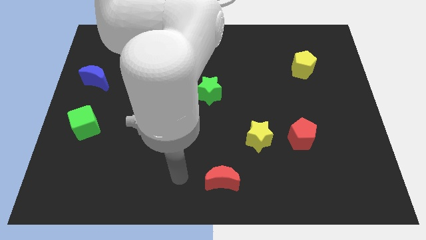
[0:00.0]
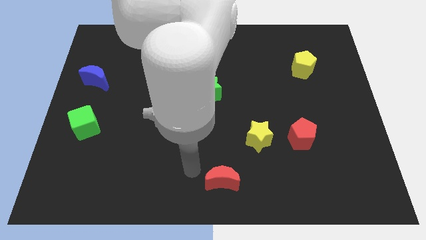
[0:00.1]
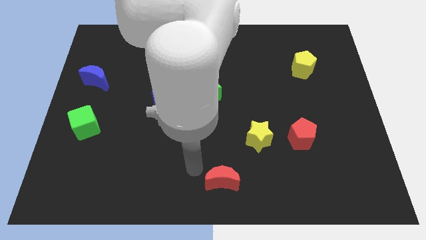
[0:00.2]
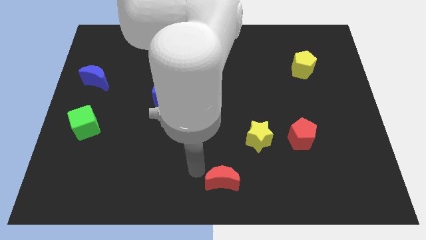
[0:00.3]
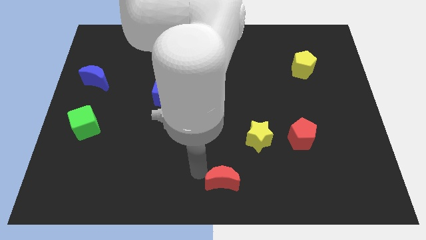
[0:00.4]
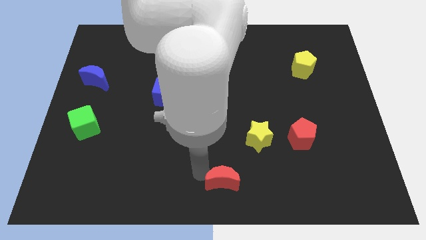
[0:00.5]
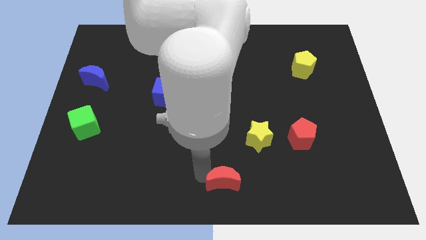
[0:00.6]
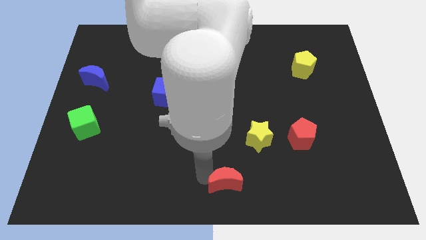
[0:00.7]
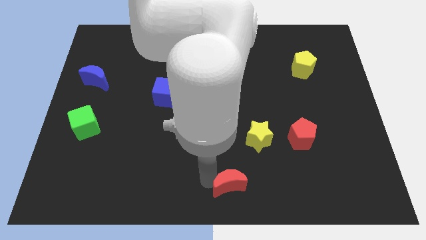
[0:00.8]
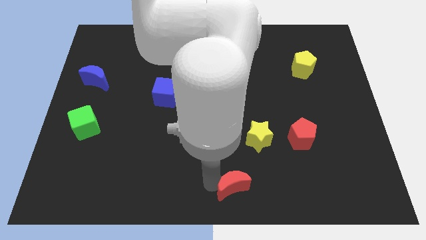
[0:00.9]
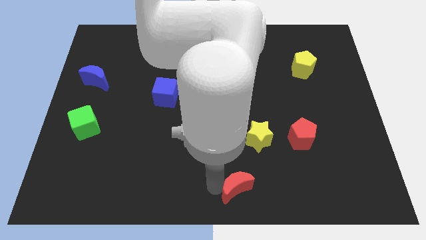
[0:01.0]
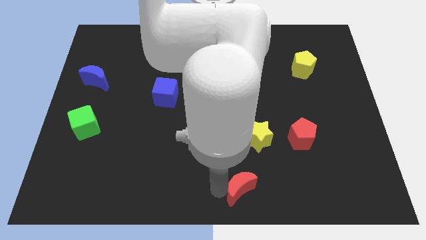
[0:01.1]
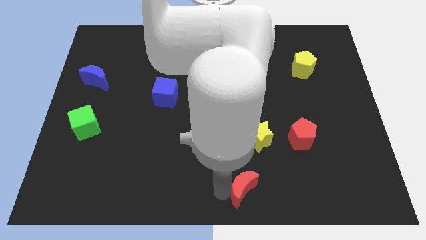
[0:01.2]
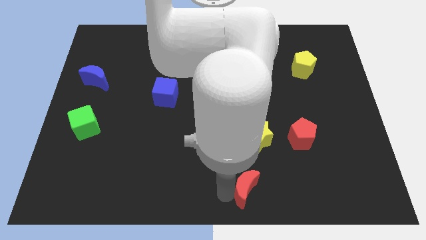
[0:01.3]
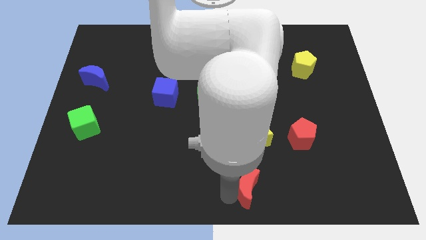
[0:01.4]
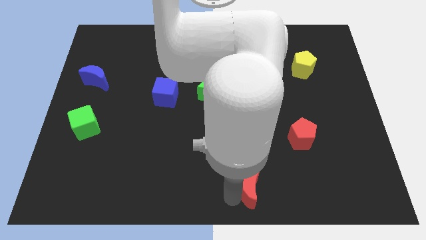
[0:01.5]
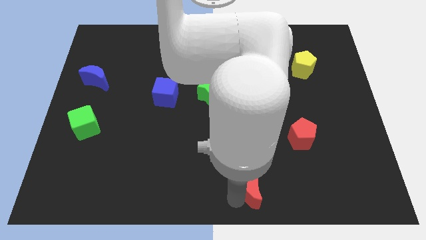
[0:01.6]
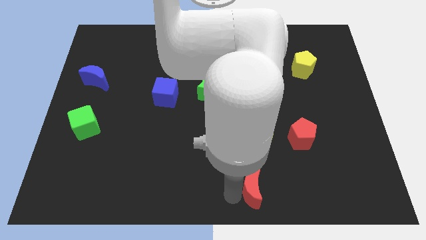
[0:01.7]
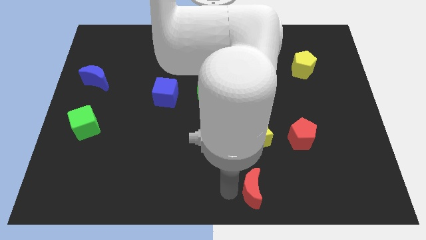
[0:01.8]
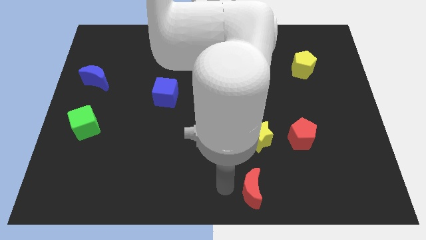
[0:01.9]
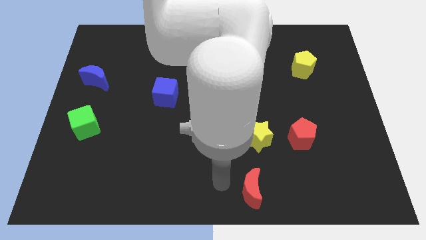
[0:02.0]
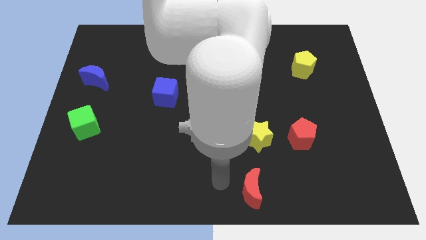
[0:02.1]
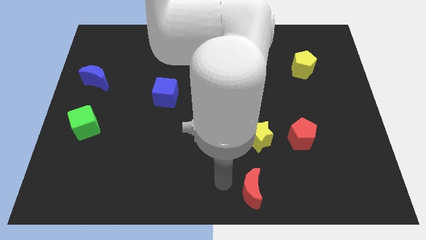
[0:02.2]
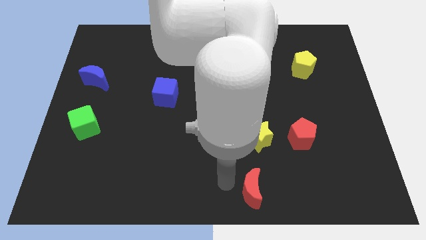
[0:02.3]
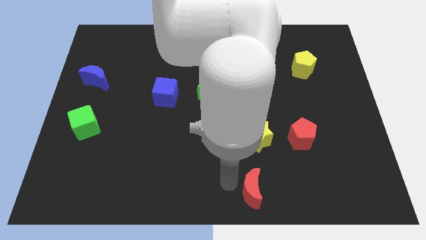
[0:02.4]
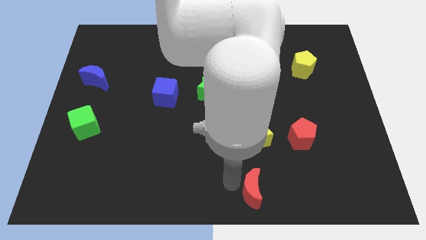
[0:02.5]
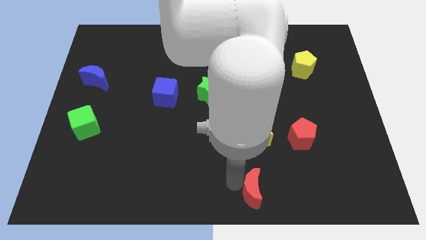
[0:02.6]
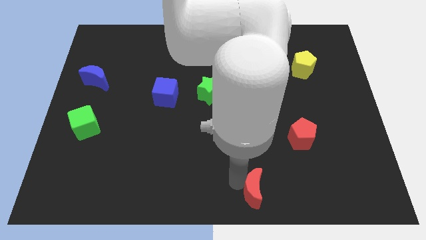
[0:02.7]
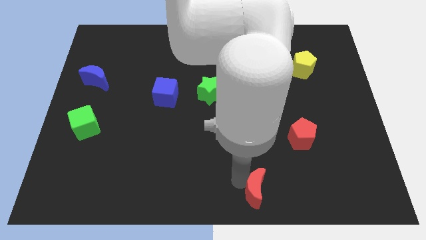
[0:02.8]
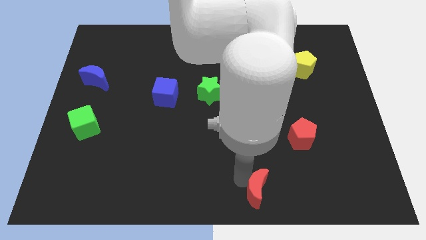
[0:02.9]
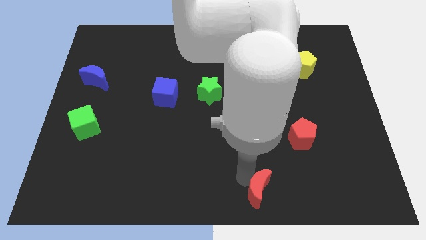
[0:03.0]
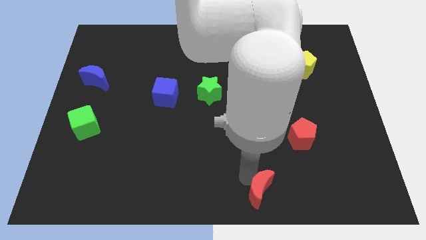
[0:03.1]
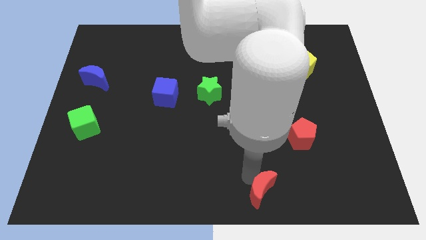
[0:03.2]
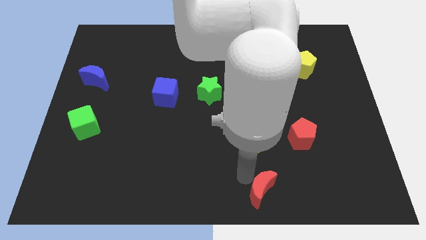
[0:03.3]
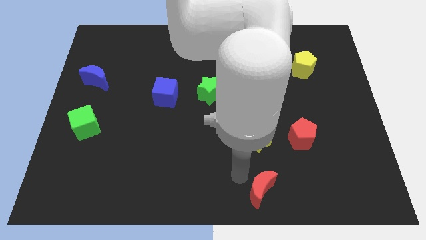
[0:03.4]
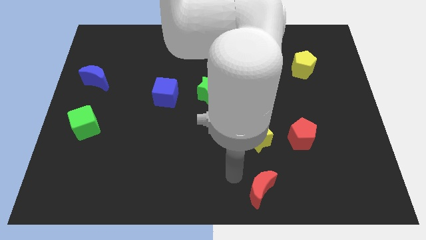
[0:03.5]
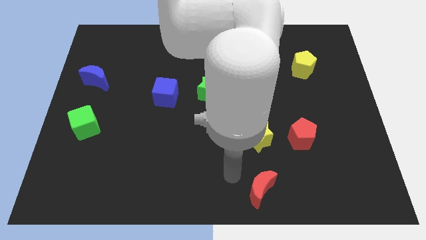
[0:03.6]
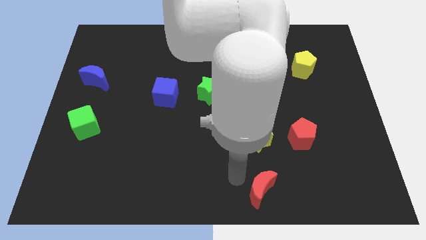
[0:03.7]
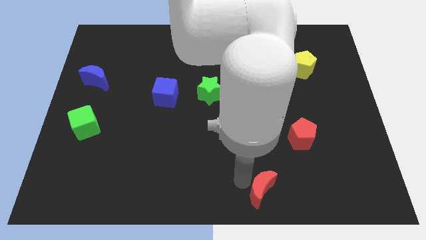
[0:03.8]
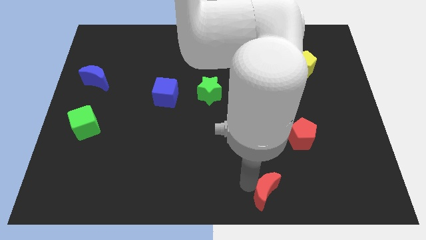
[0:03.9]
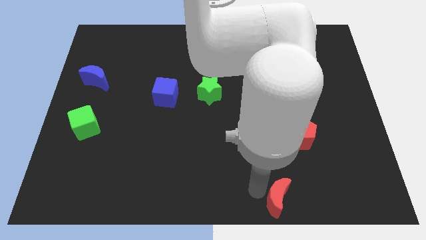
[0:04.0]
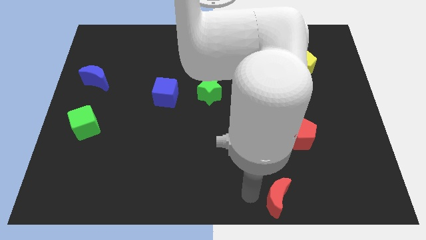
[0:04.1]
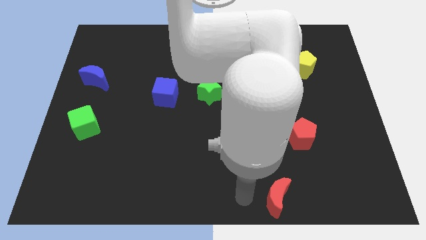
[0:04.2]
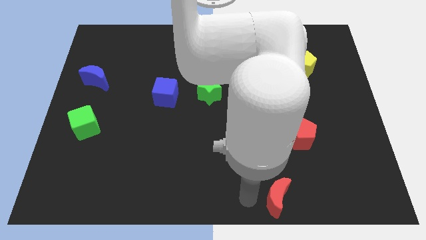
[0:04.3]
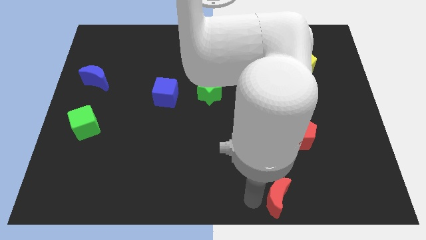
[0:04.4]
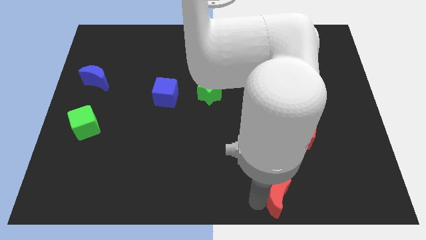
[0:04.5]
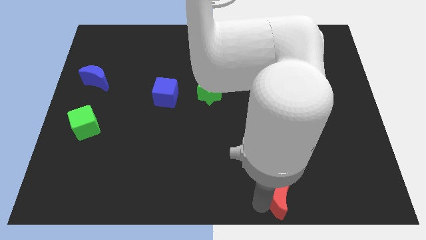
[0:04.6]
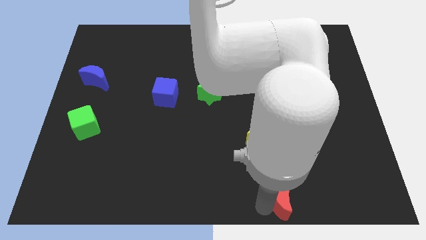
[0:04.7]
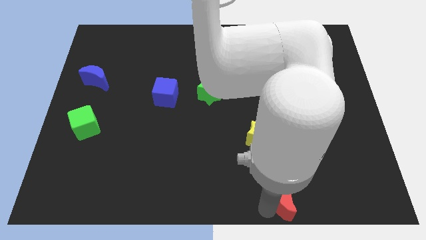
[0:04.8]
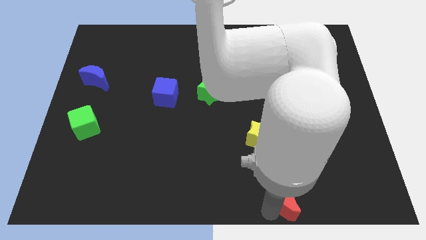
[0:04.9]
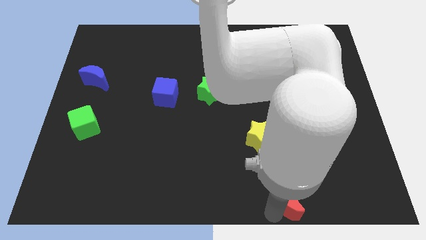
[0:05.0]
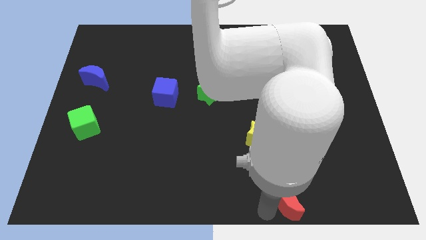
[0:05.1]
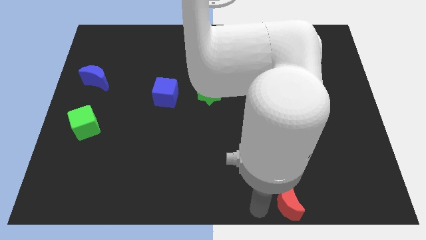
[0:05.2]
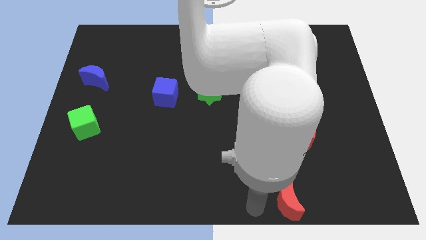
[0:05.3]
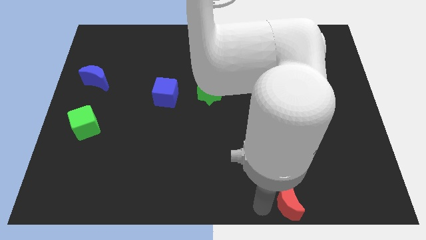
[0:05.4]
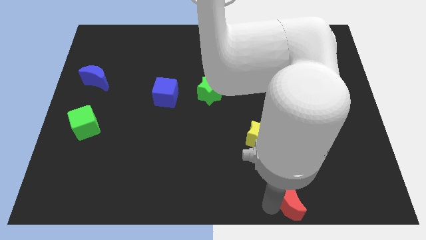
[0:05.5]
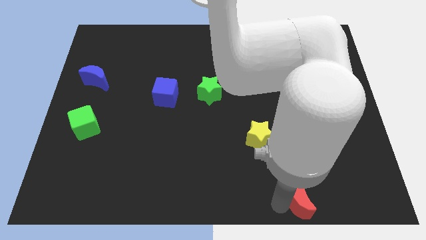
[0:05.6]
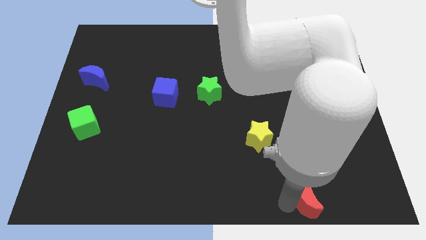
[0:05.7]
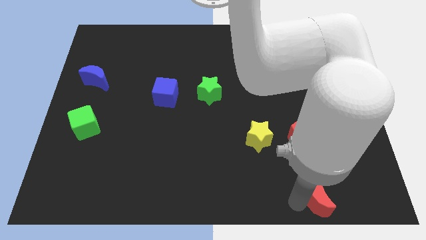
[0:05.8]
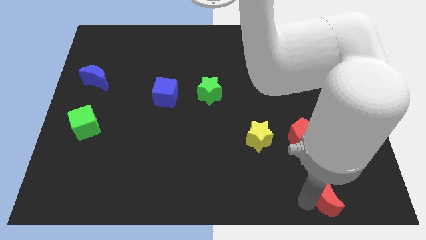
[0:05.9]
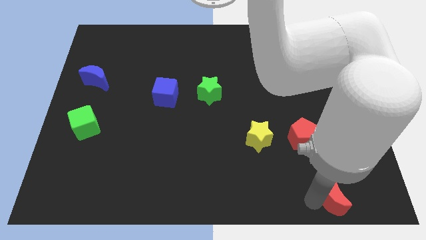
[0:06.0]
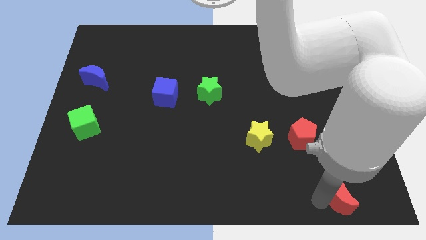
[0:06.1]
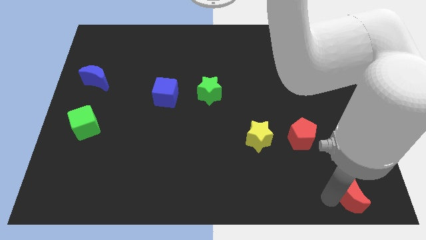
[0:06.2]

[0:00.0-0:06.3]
push the red moon to the lower right corner
